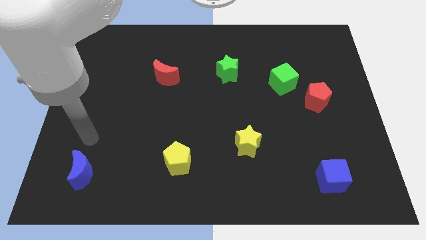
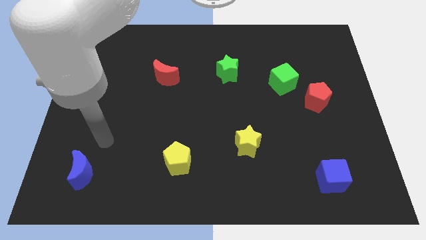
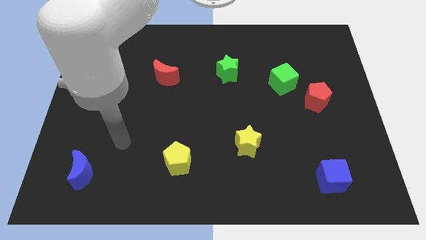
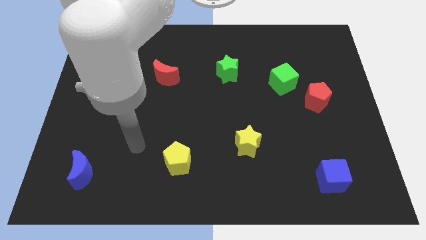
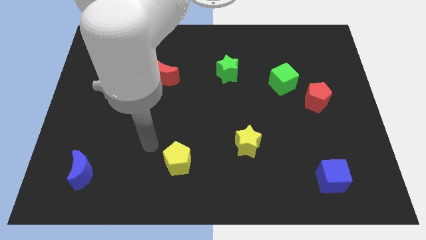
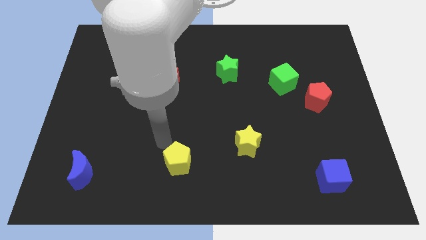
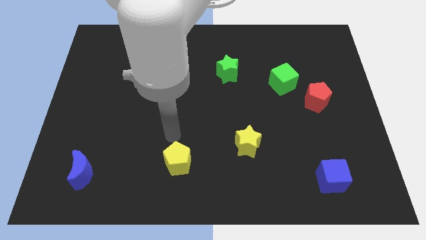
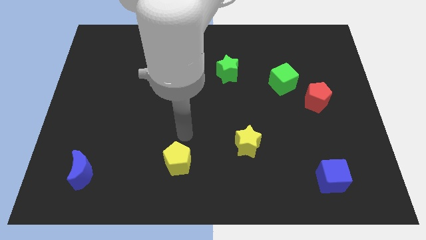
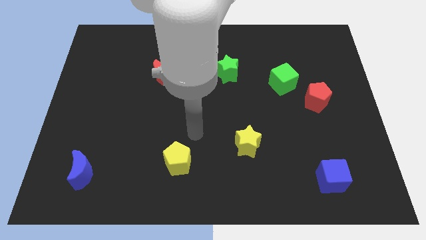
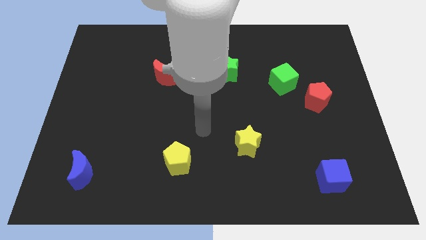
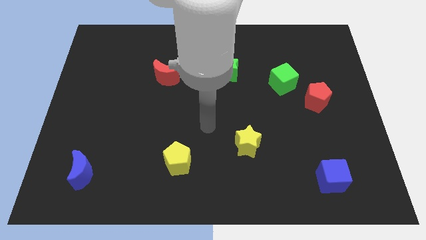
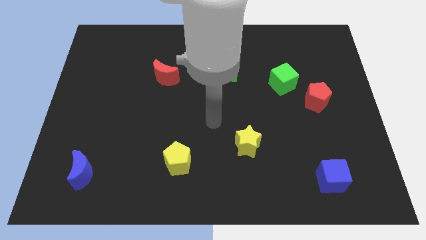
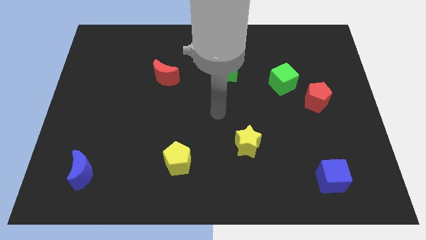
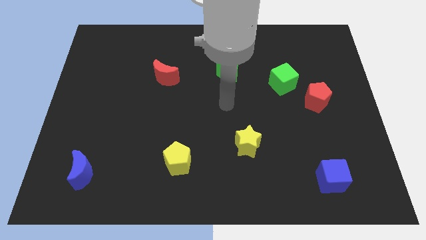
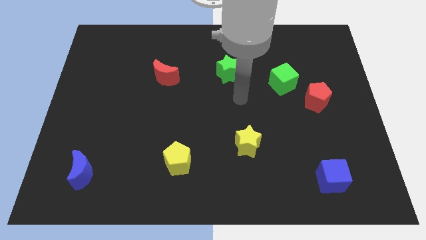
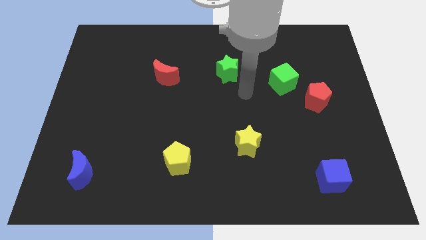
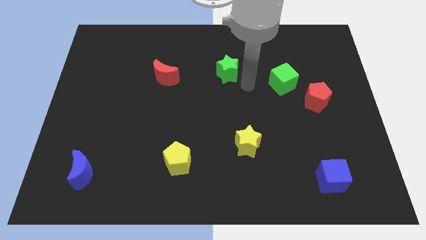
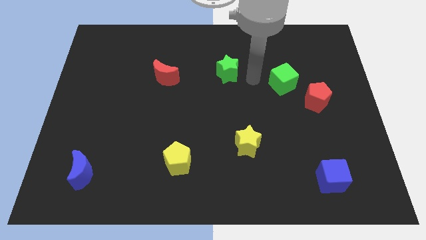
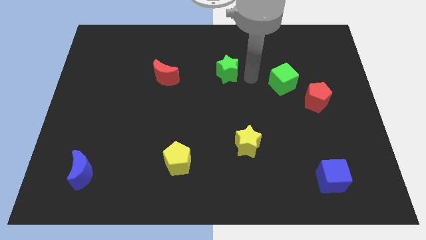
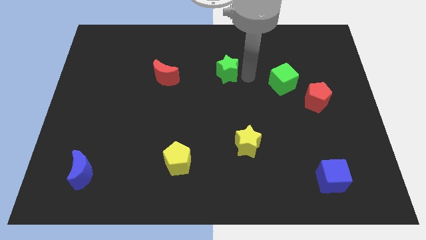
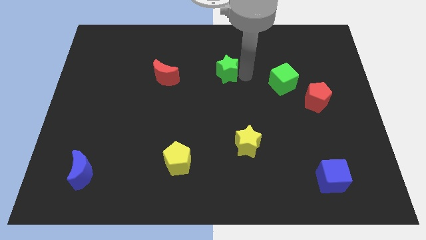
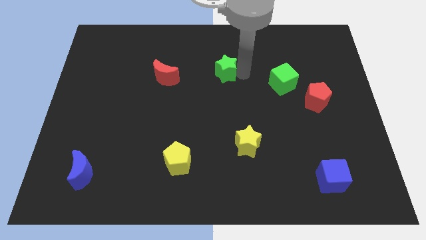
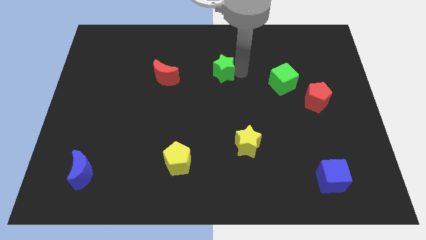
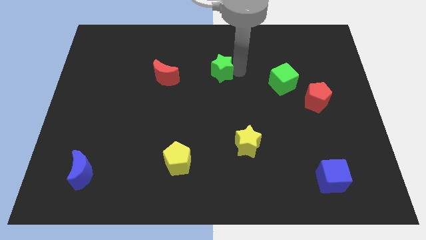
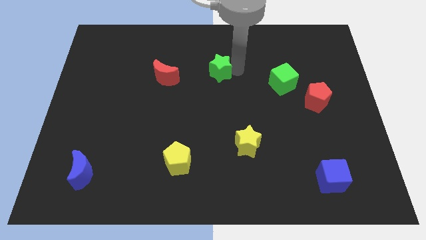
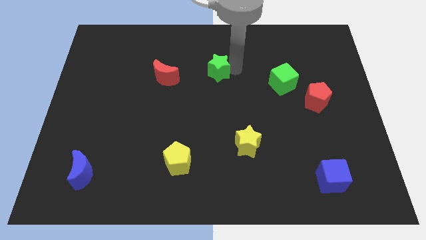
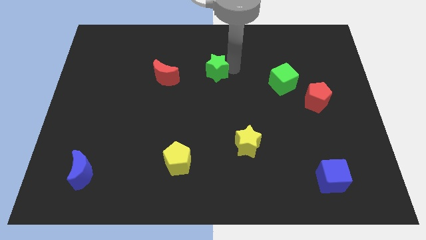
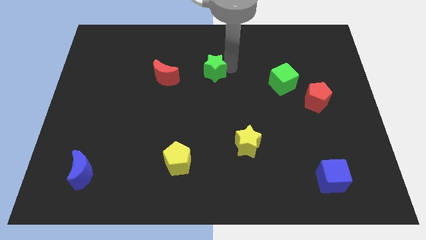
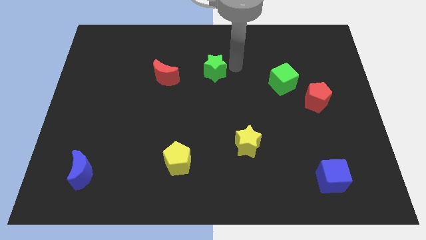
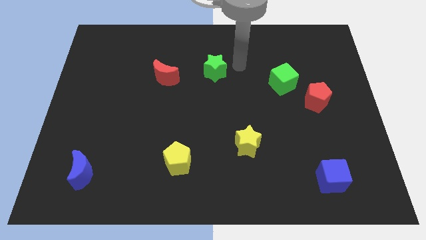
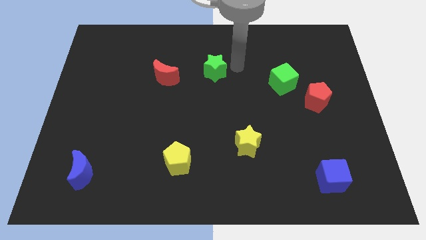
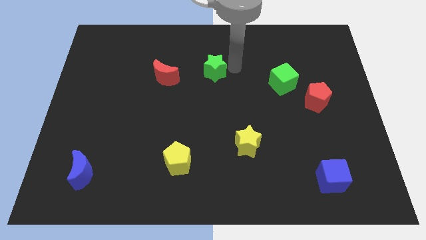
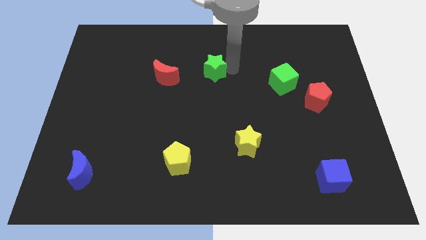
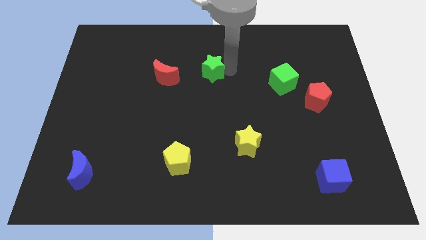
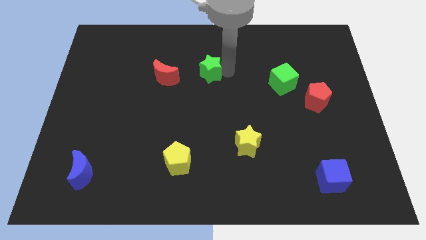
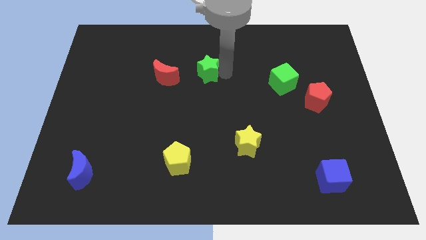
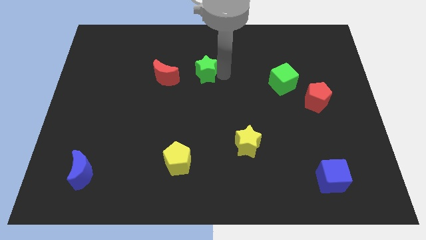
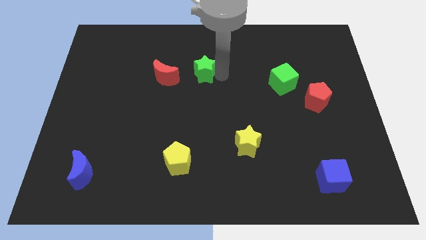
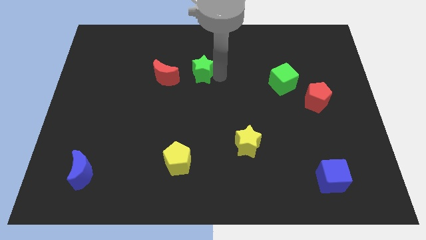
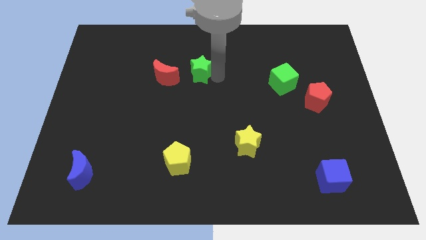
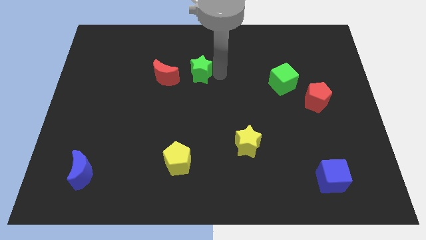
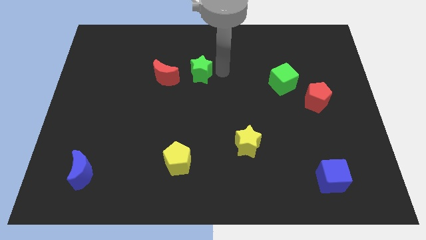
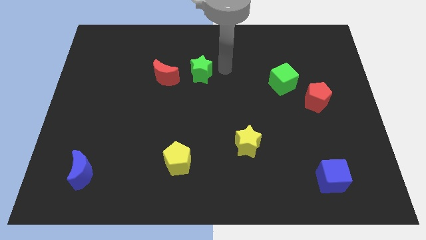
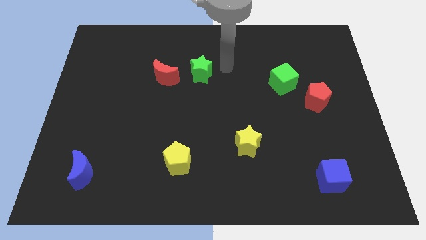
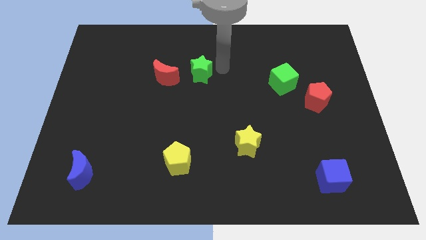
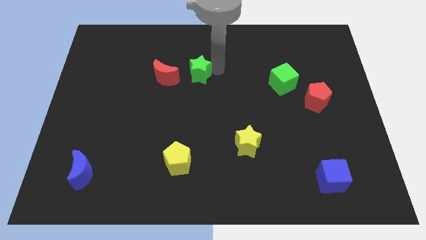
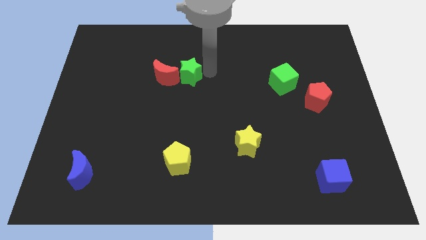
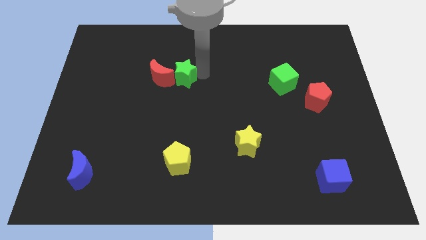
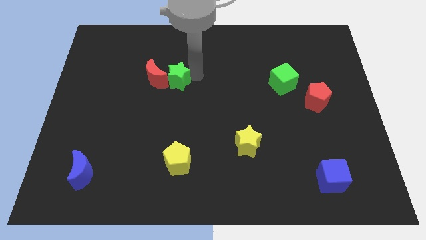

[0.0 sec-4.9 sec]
slide the green star close to the red moon

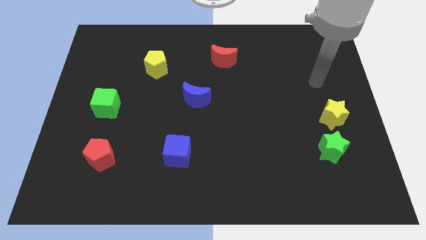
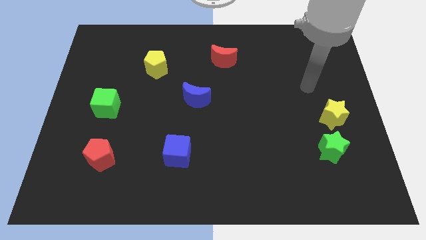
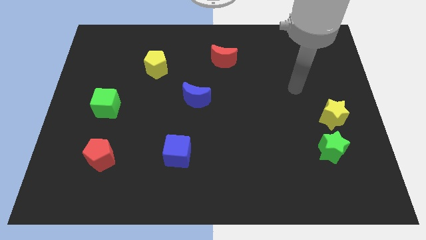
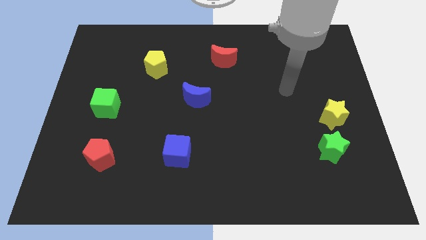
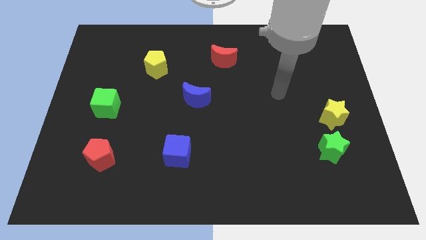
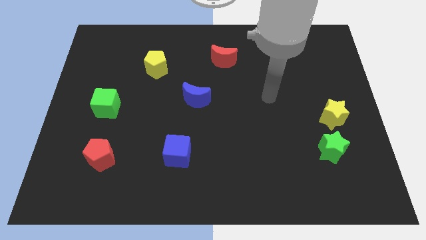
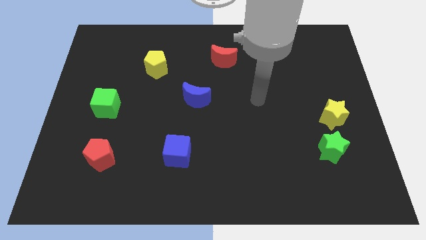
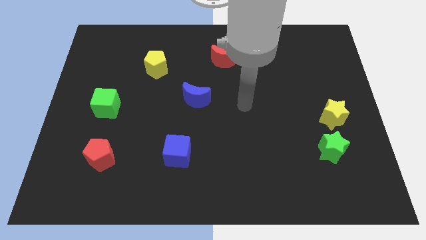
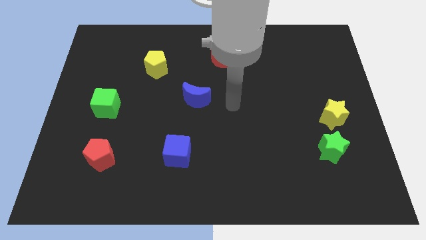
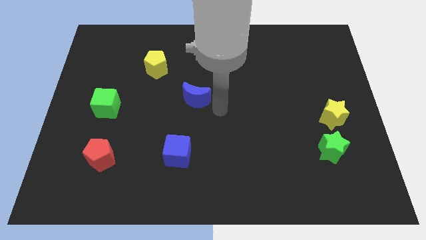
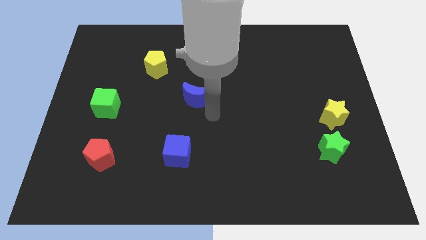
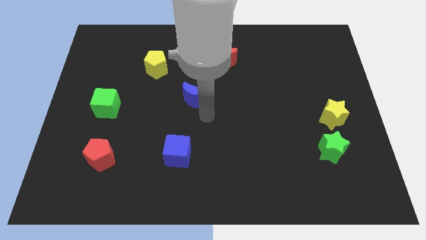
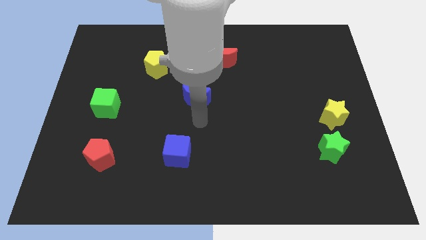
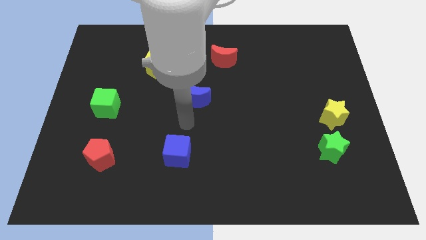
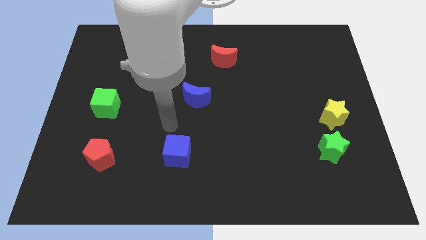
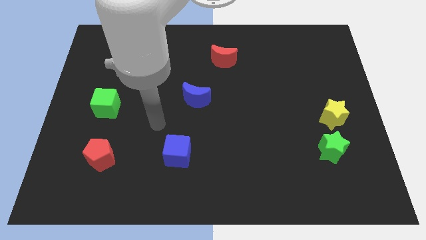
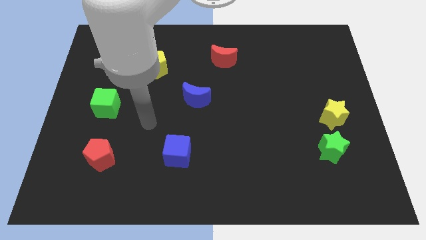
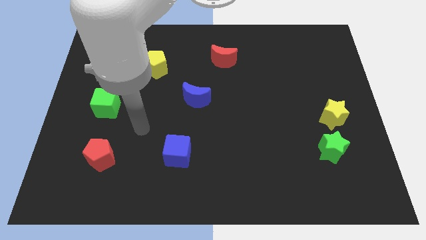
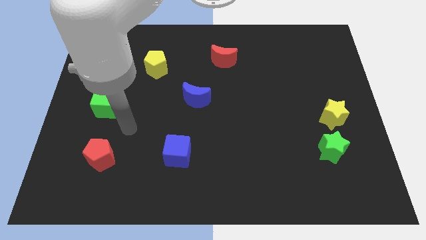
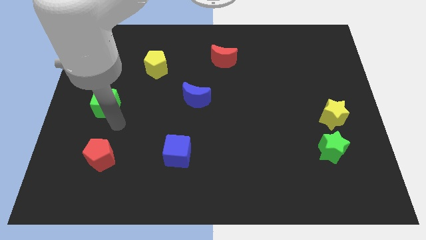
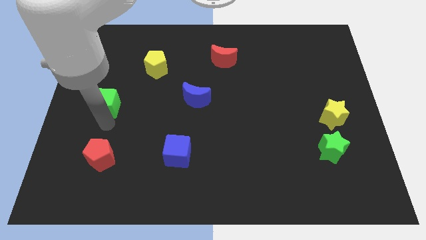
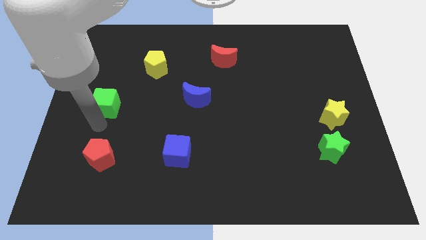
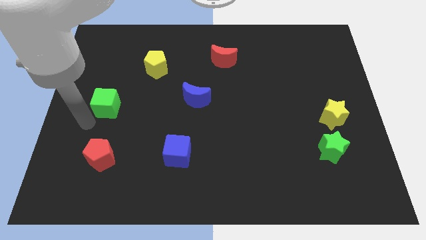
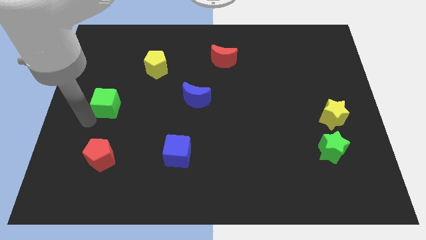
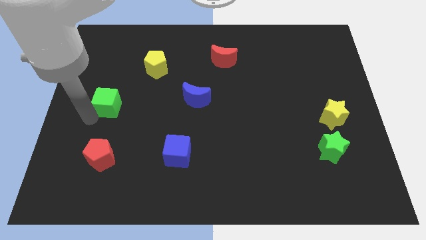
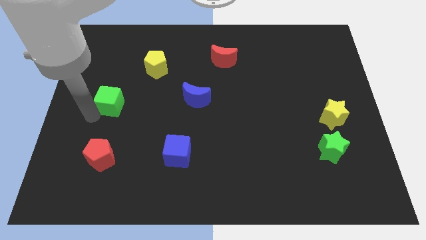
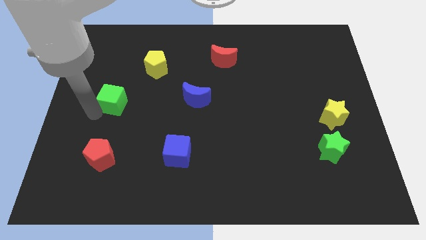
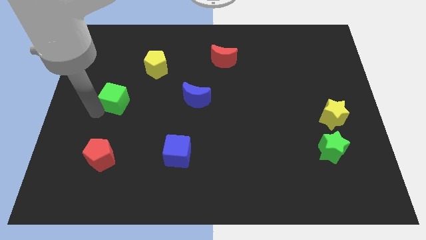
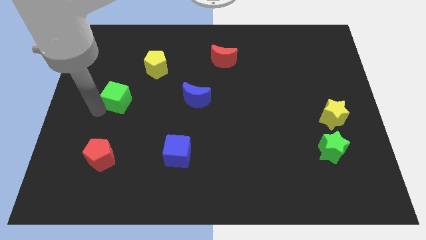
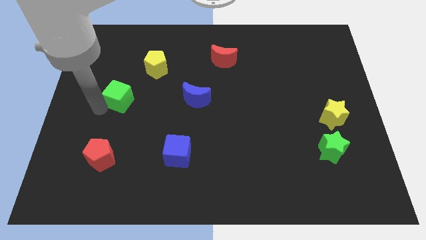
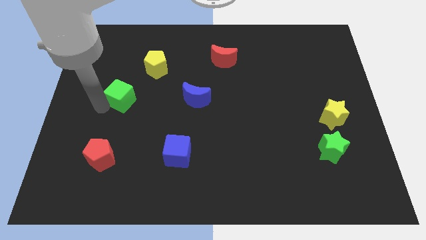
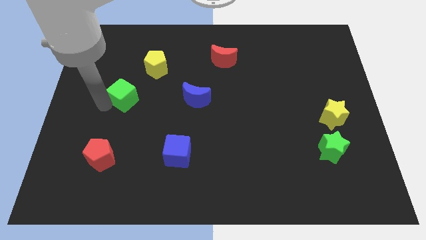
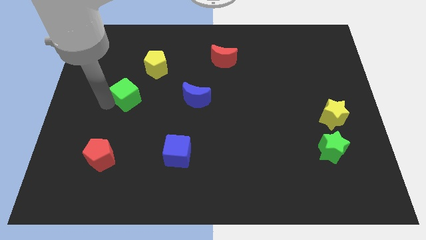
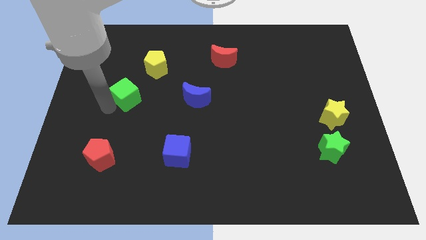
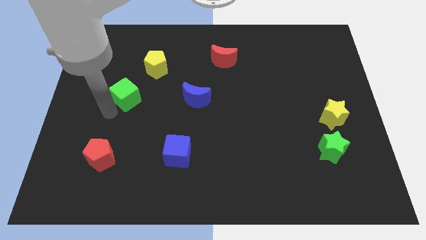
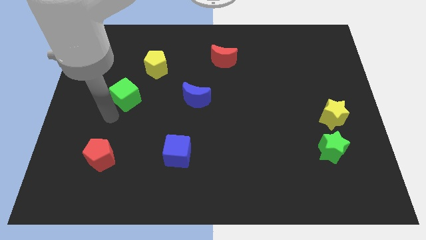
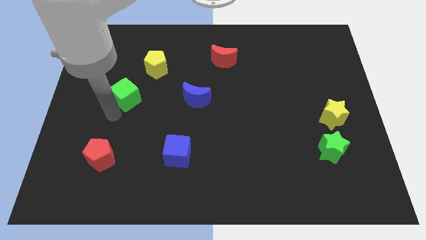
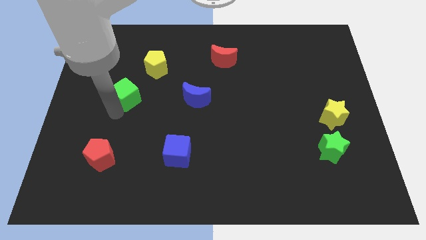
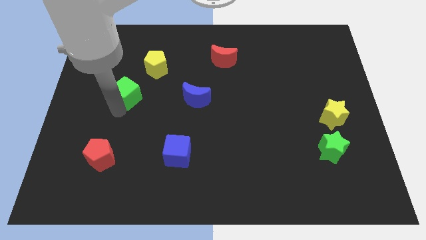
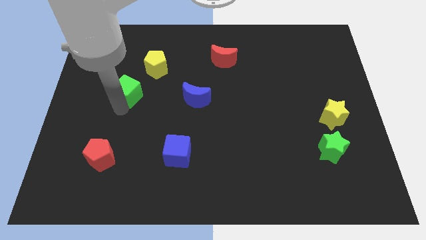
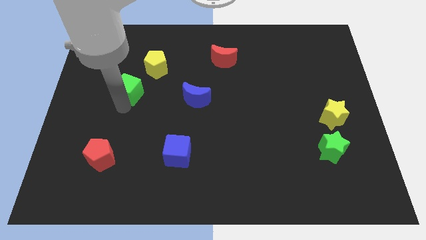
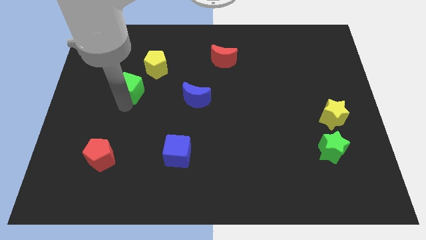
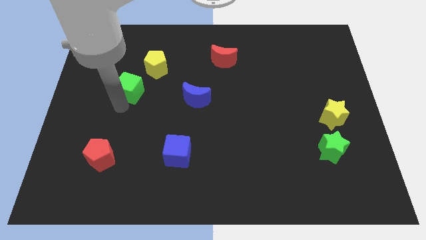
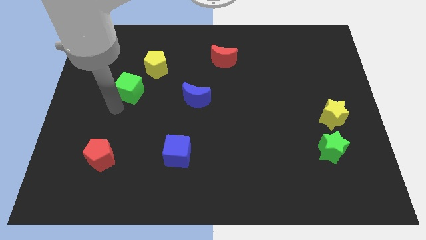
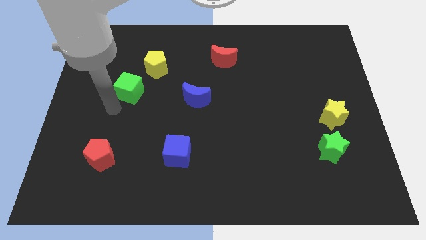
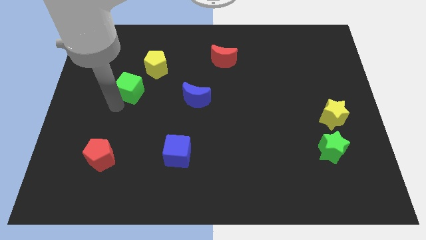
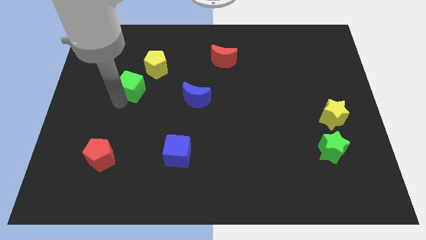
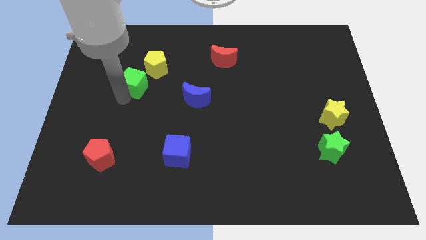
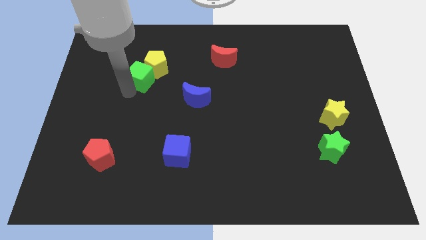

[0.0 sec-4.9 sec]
put the green cube to the yellow pentagon
